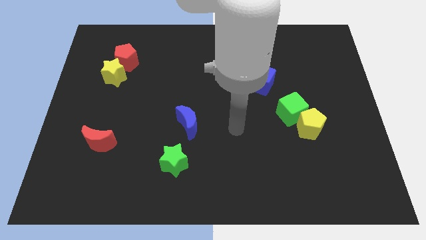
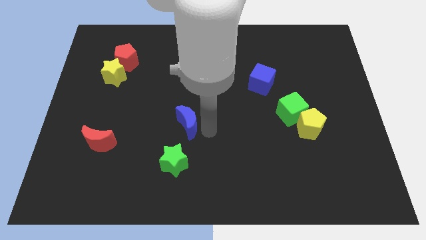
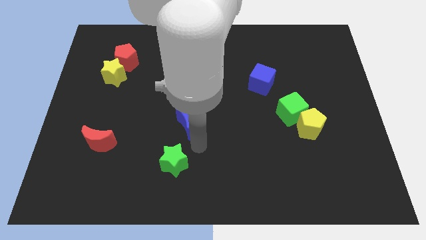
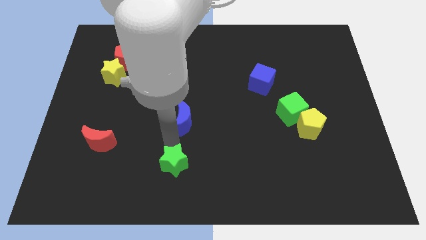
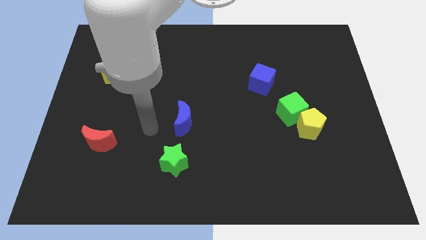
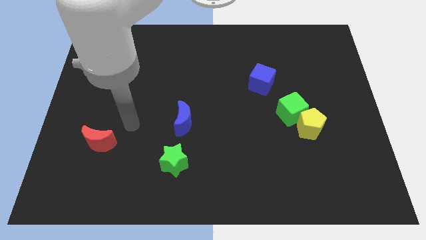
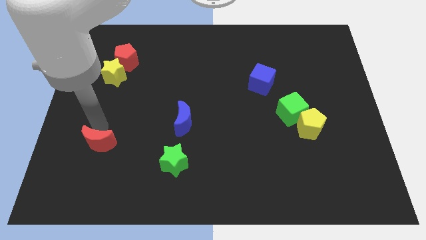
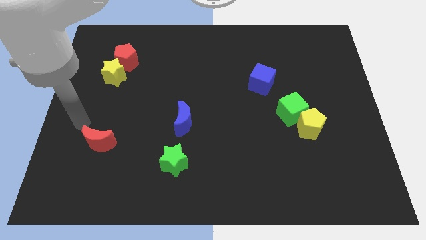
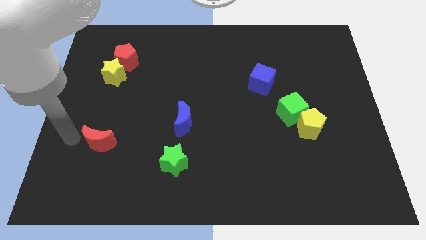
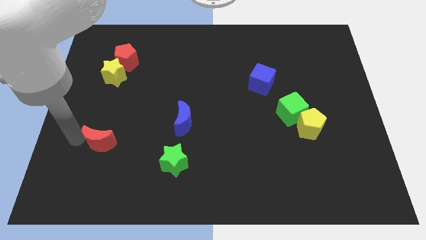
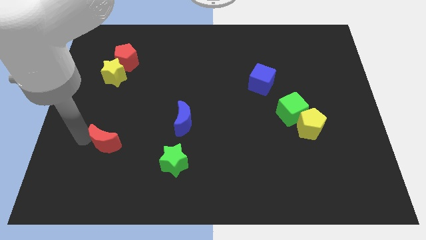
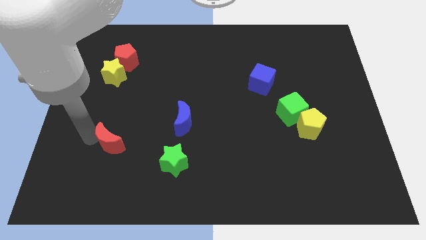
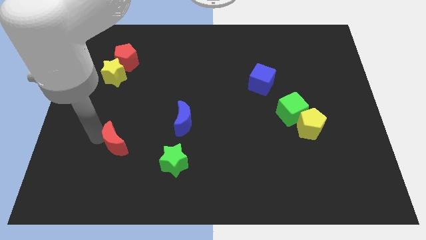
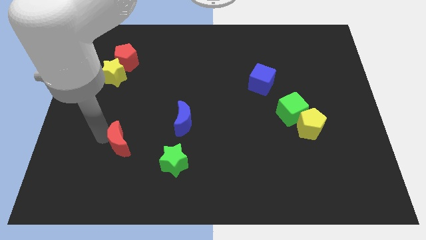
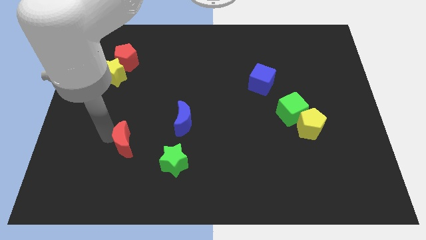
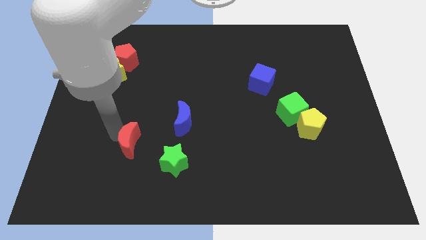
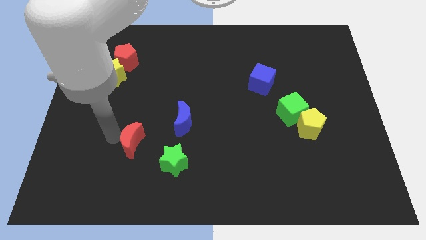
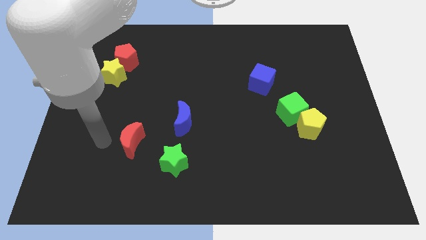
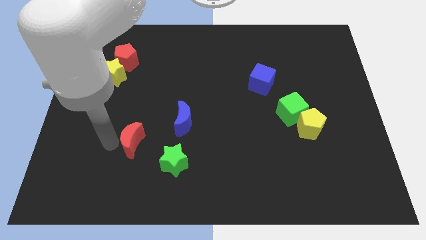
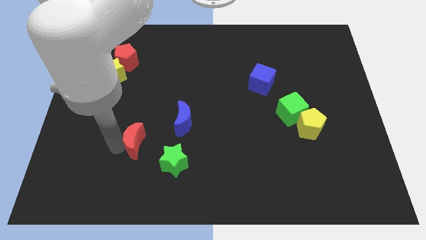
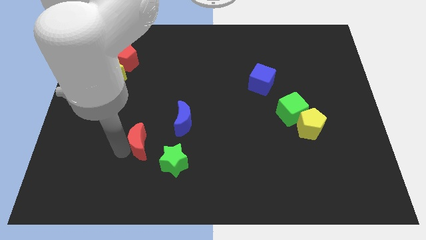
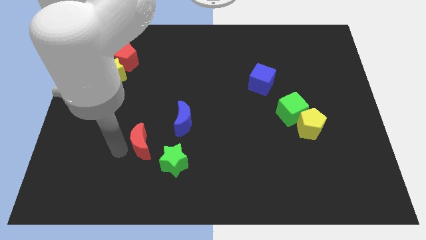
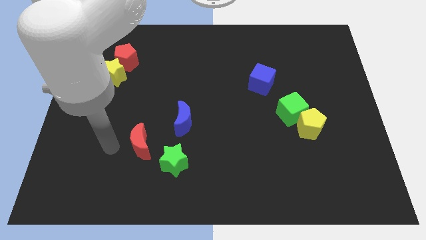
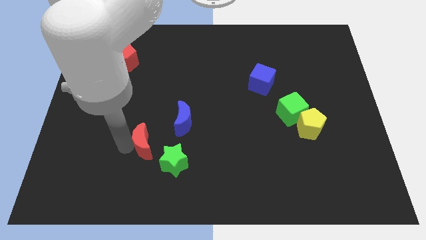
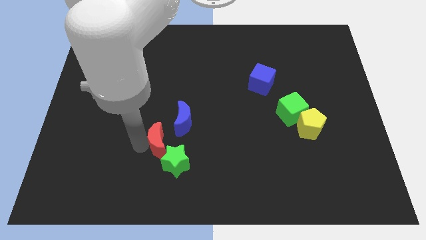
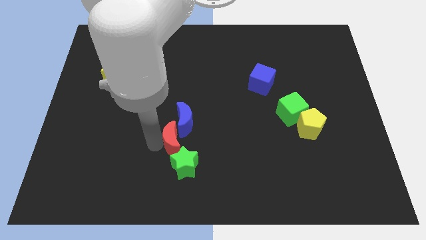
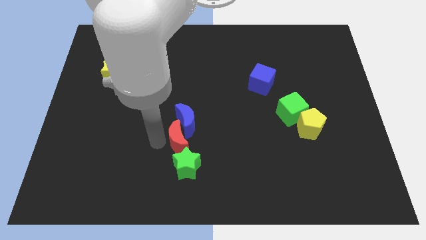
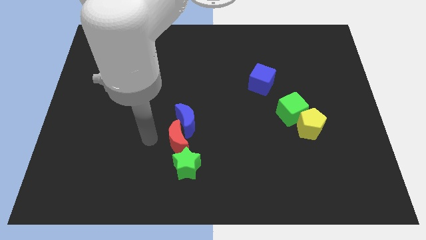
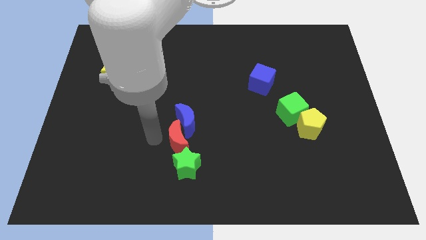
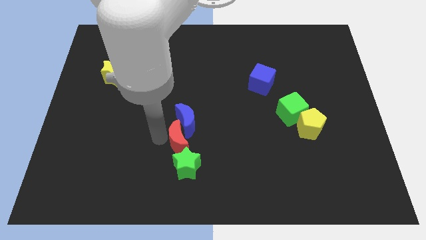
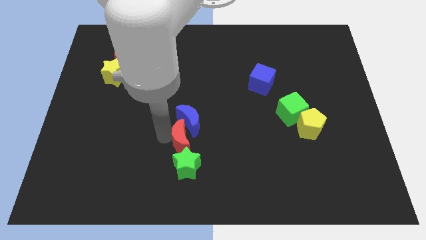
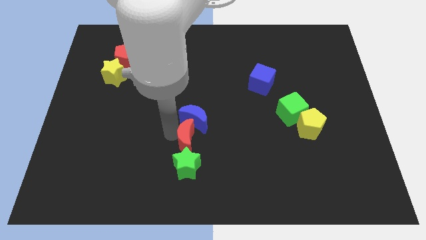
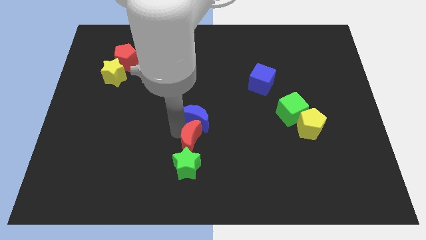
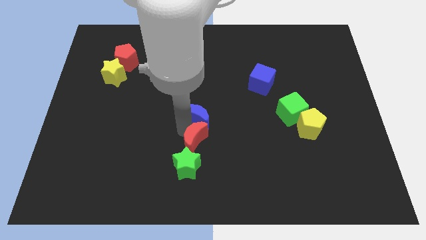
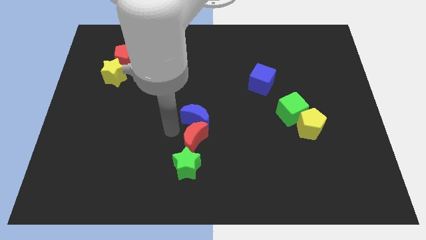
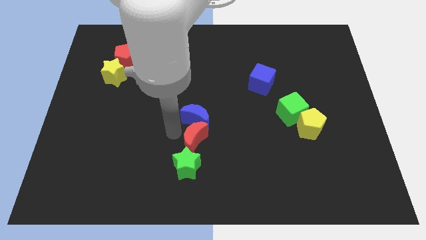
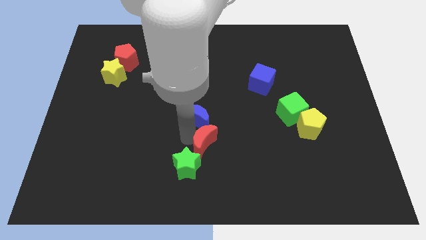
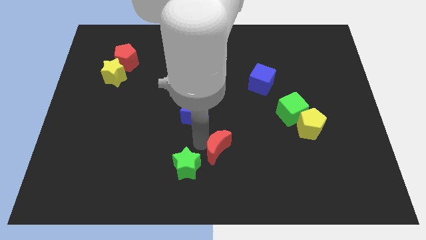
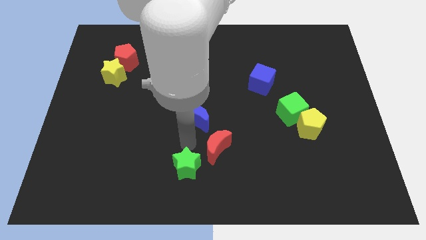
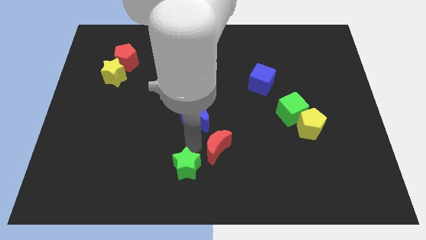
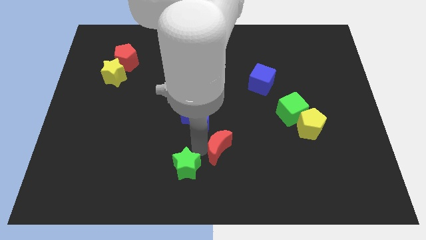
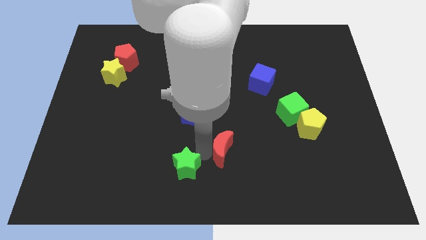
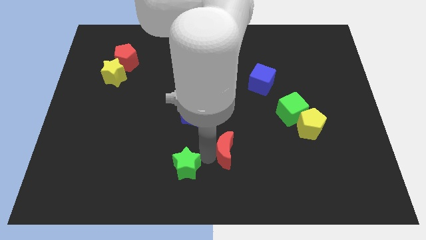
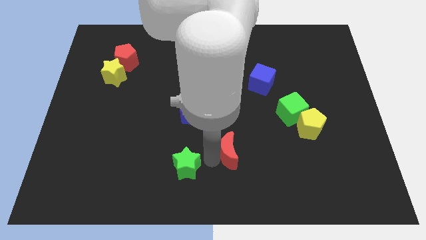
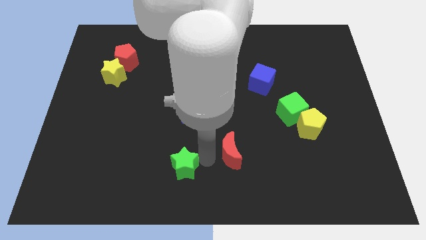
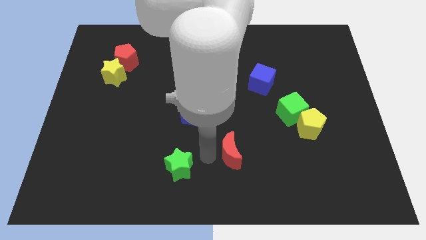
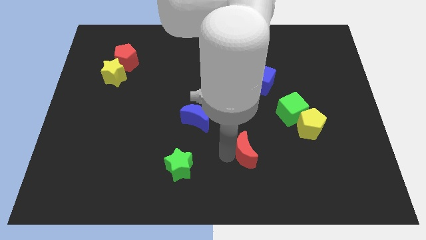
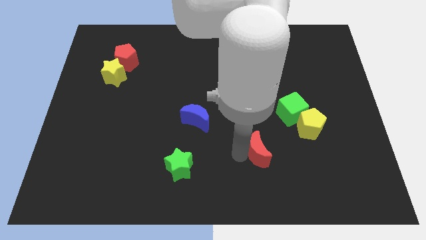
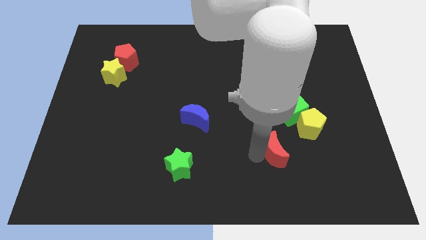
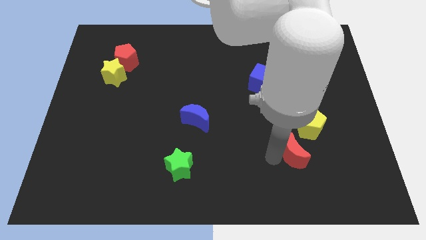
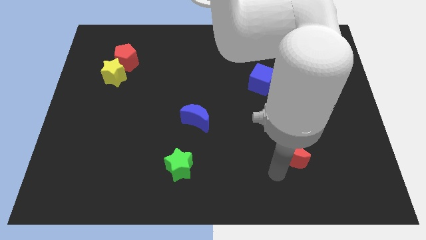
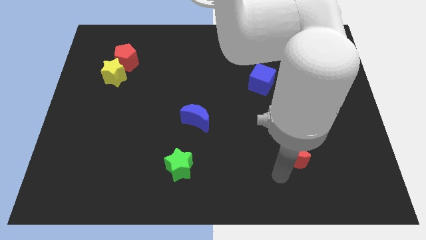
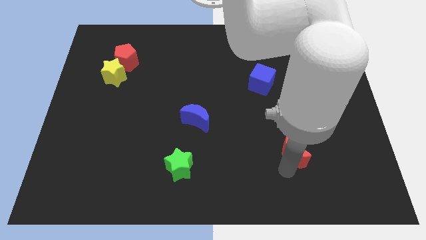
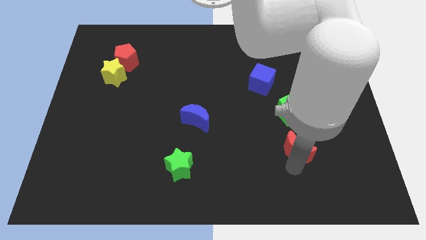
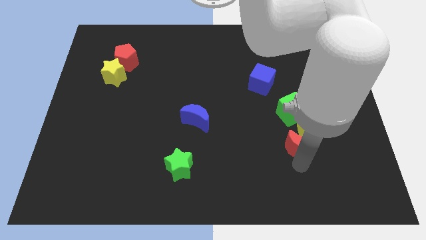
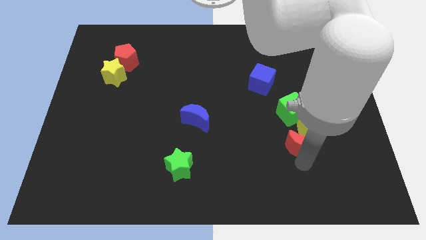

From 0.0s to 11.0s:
push the red moon close to the yellow pentagon

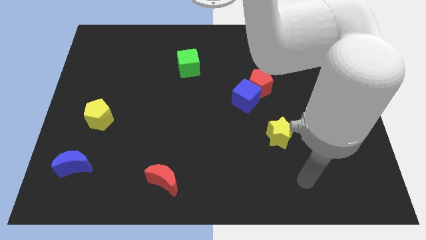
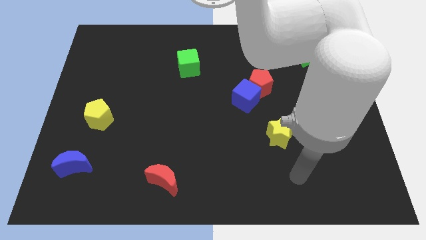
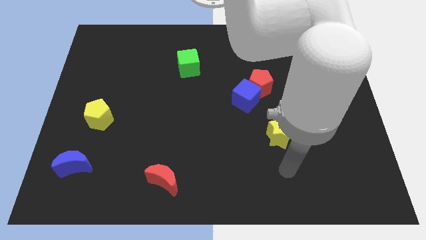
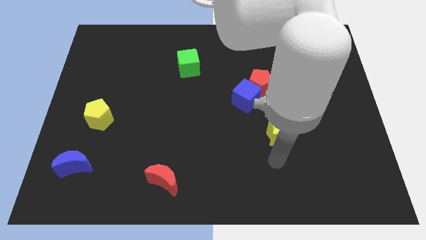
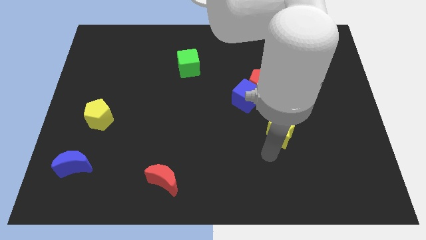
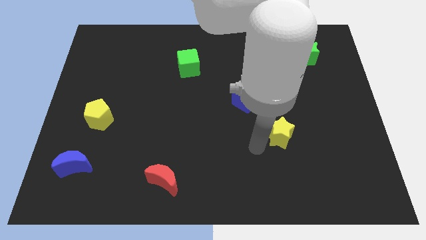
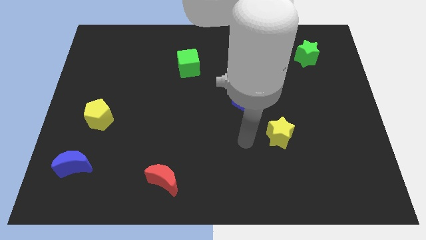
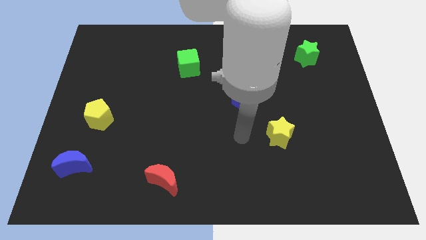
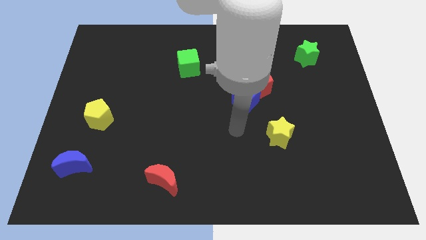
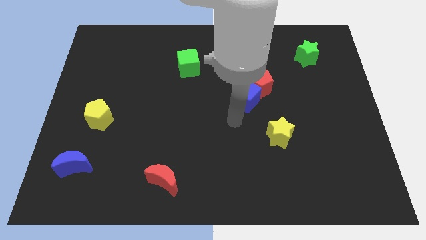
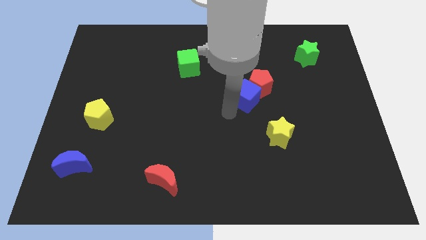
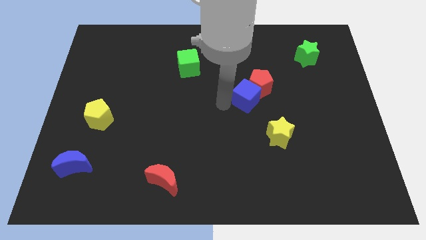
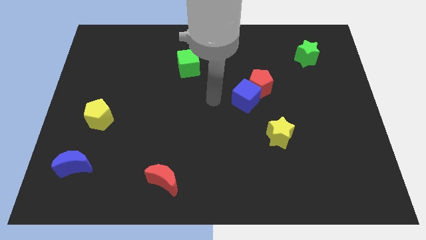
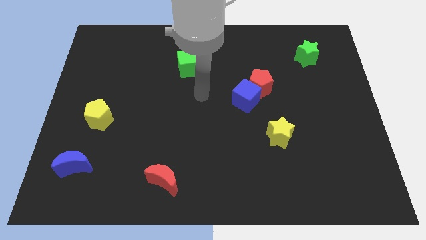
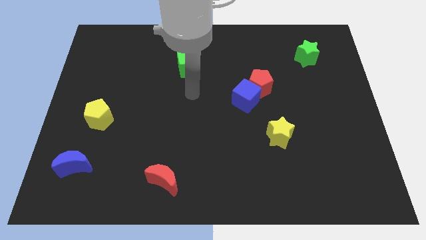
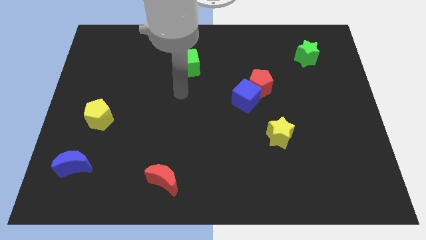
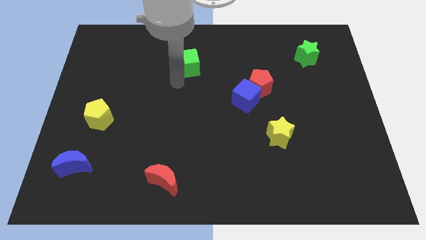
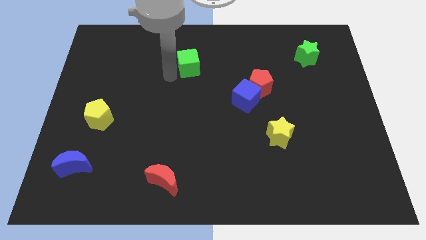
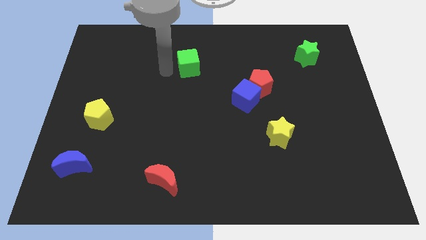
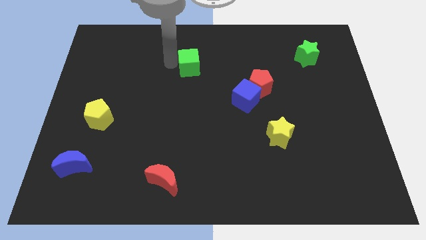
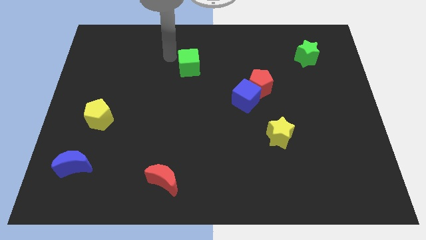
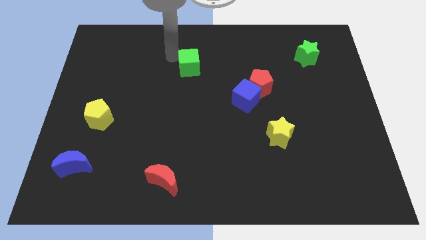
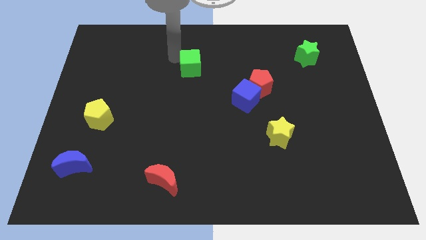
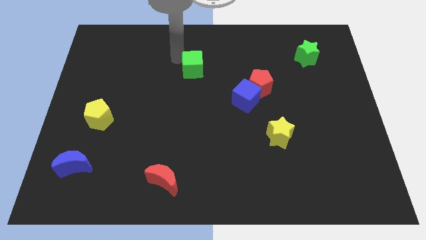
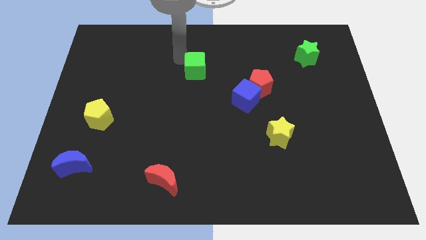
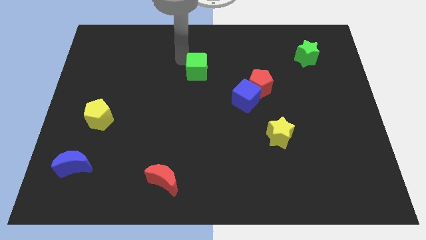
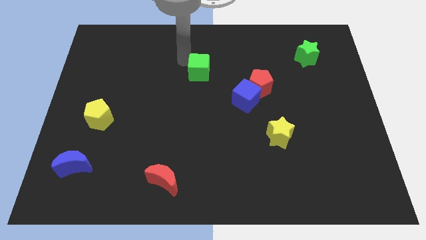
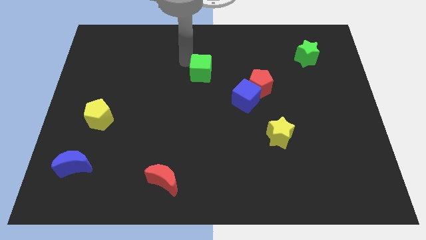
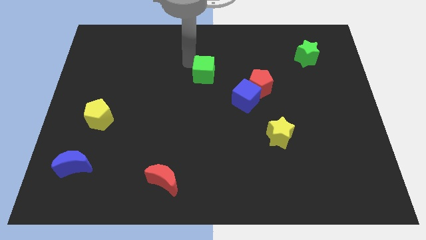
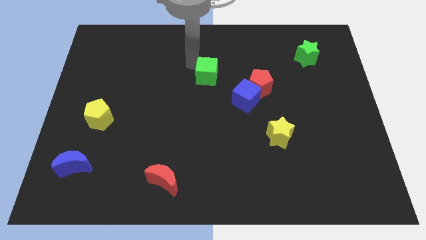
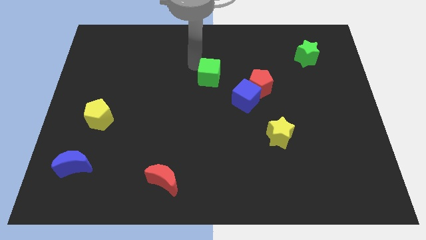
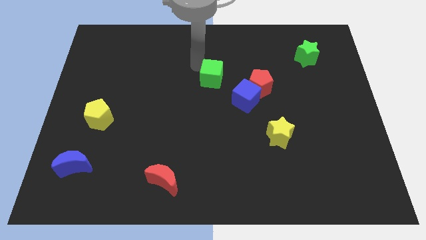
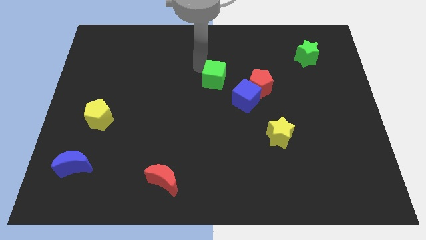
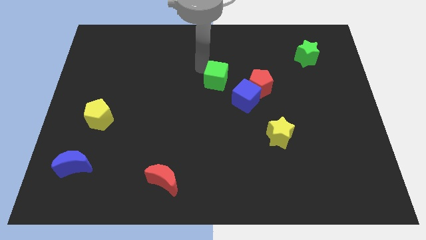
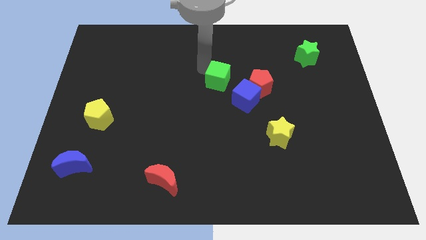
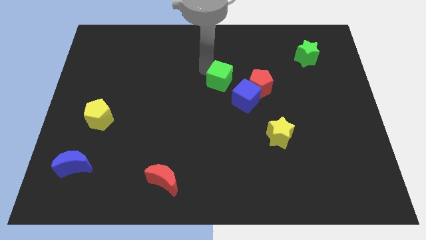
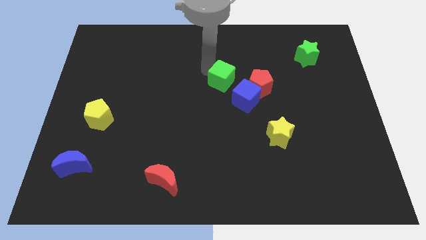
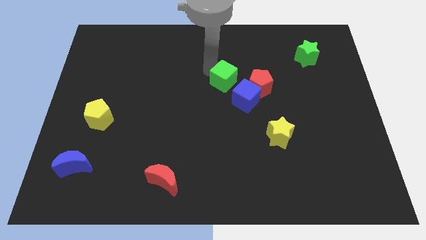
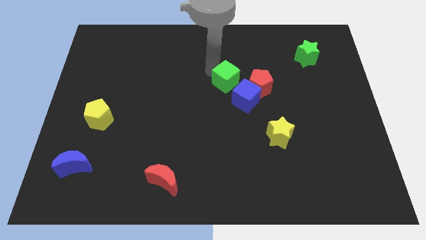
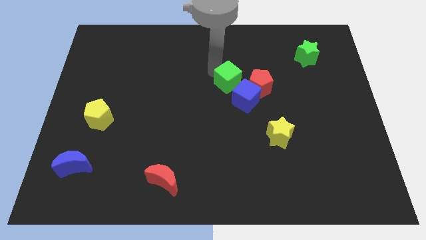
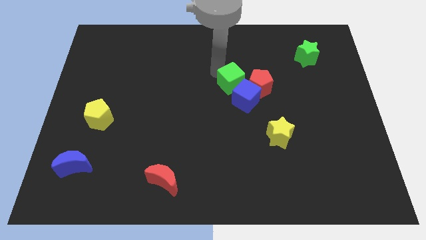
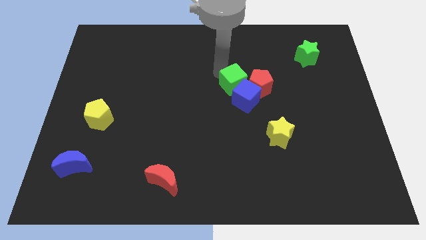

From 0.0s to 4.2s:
put the green cube towards the blue cube
